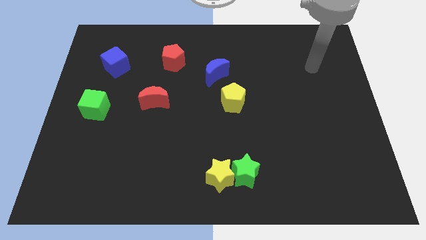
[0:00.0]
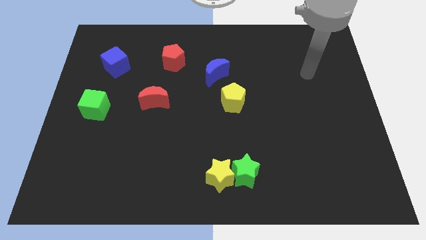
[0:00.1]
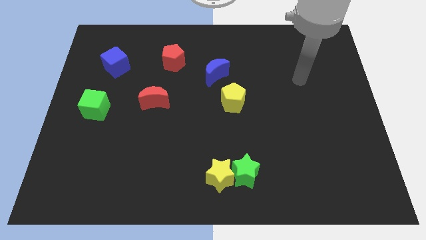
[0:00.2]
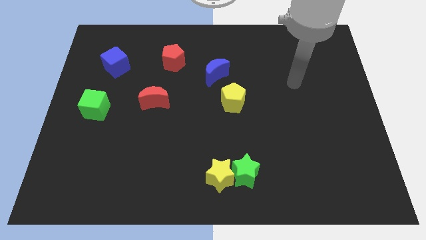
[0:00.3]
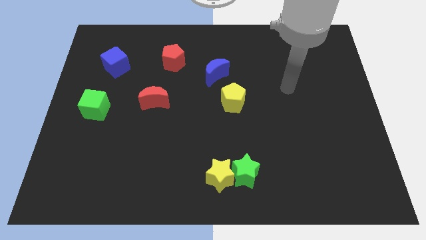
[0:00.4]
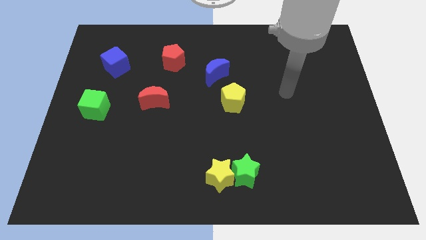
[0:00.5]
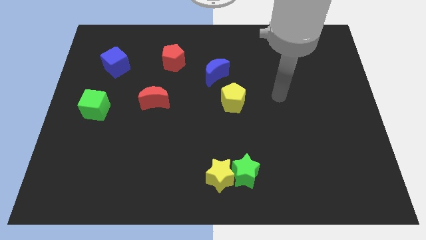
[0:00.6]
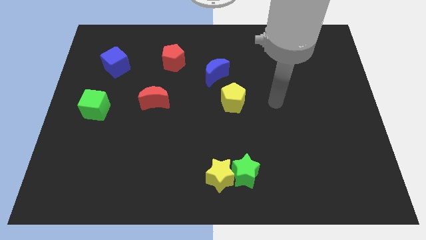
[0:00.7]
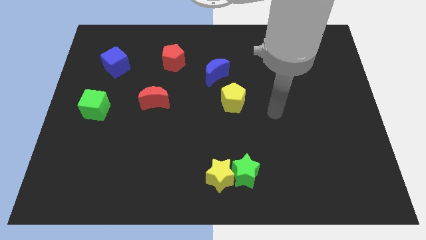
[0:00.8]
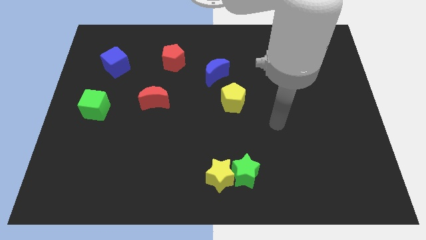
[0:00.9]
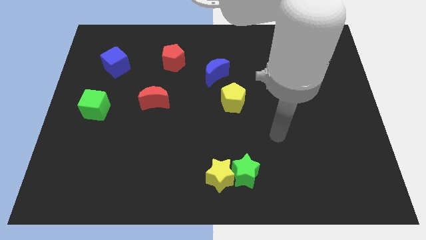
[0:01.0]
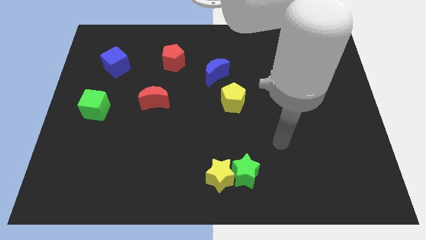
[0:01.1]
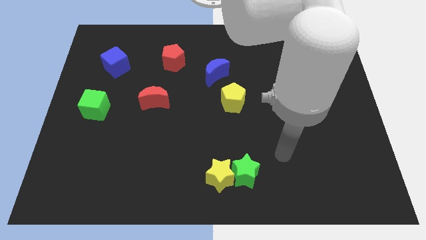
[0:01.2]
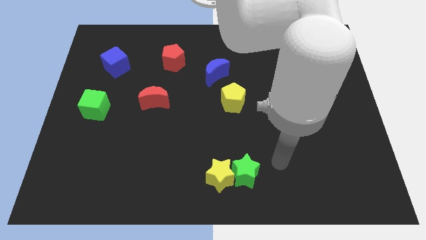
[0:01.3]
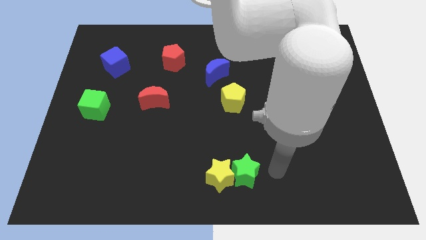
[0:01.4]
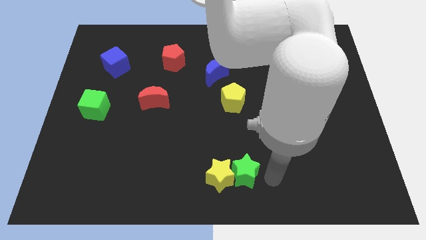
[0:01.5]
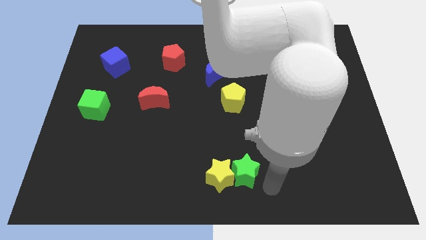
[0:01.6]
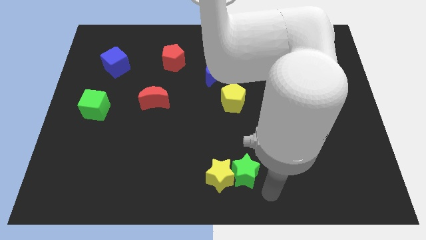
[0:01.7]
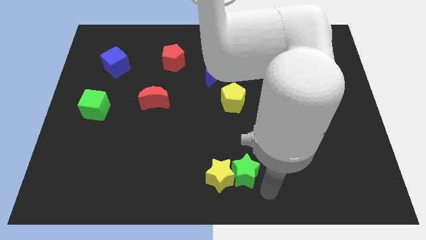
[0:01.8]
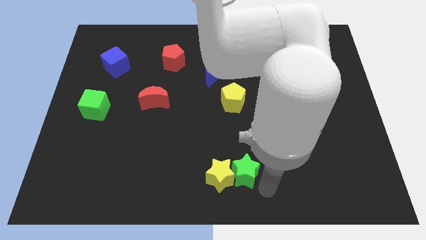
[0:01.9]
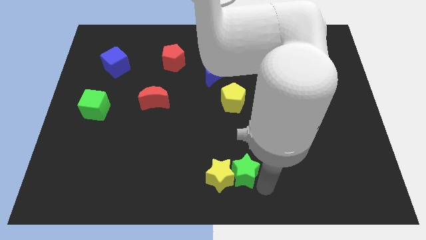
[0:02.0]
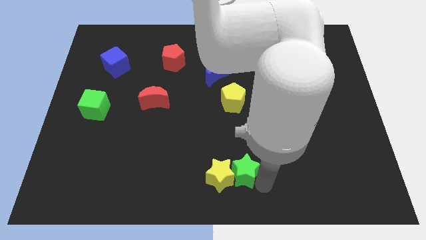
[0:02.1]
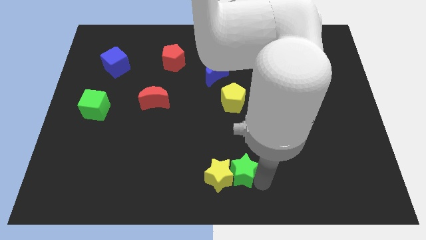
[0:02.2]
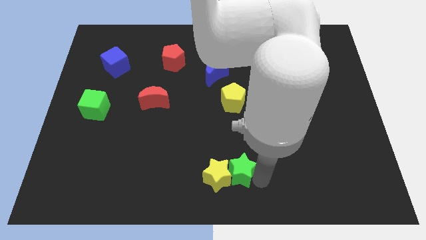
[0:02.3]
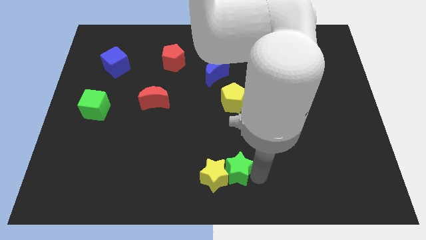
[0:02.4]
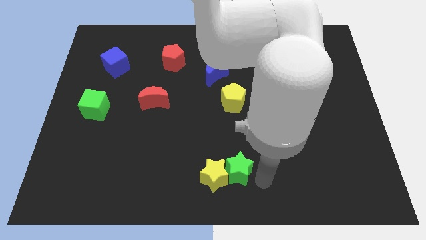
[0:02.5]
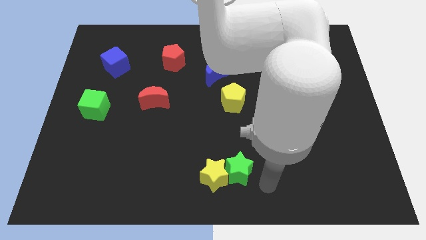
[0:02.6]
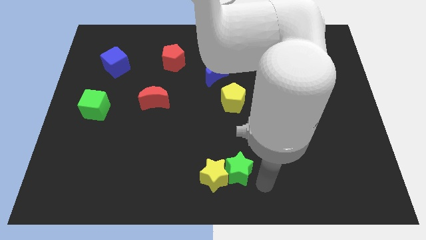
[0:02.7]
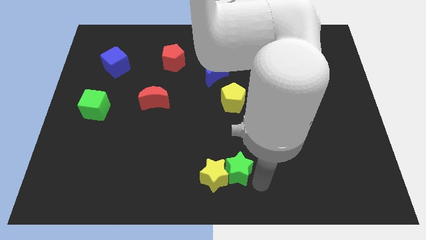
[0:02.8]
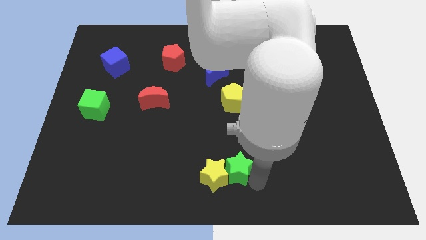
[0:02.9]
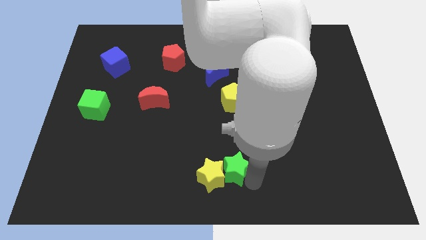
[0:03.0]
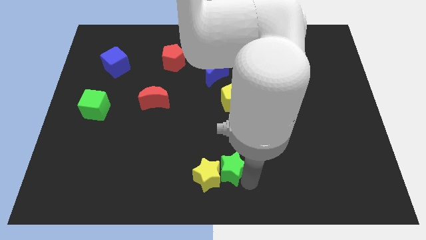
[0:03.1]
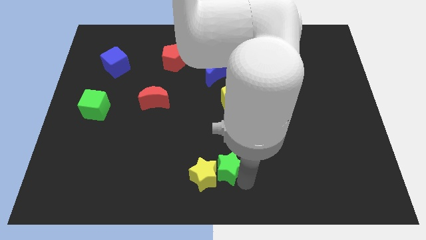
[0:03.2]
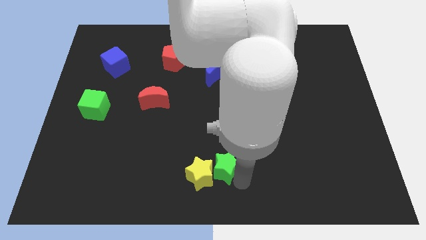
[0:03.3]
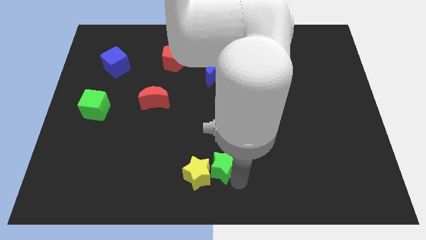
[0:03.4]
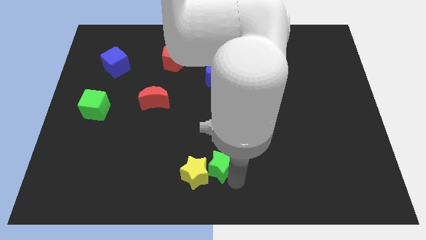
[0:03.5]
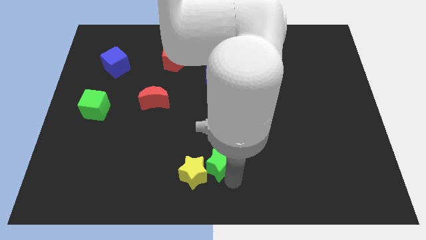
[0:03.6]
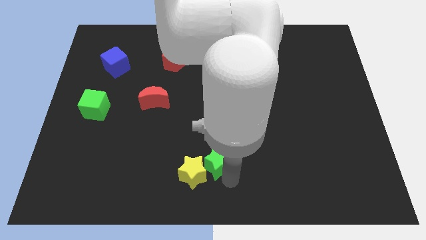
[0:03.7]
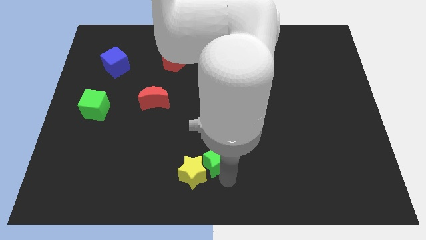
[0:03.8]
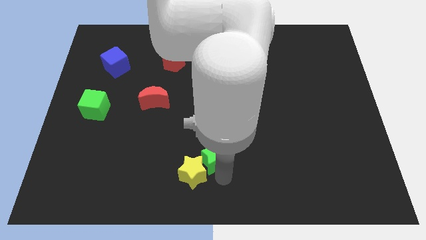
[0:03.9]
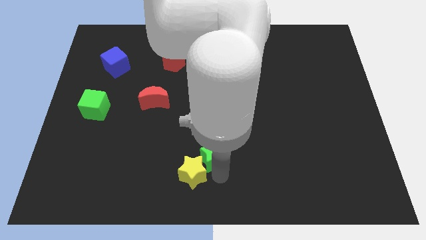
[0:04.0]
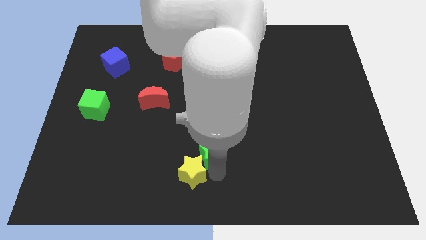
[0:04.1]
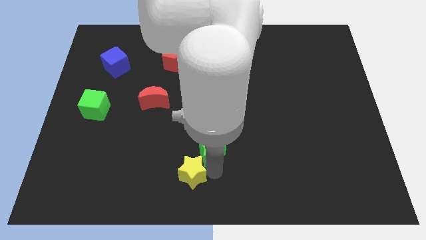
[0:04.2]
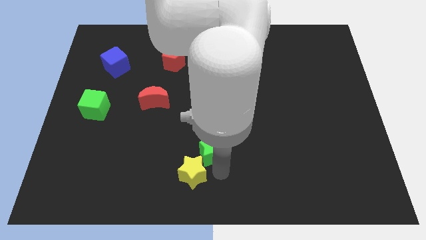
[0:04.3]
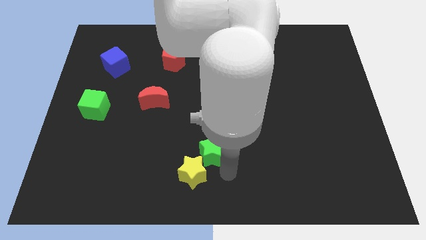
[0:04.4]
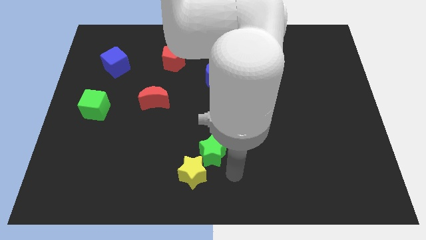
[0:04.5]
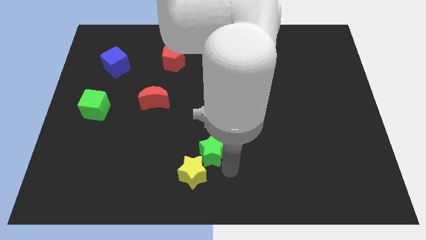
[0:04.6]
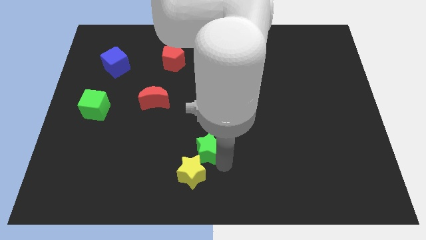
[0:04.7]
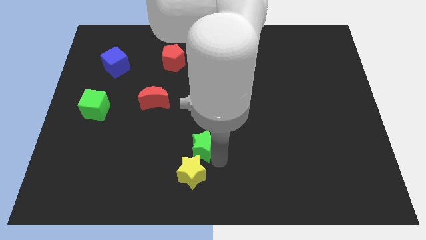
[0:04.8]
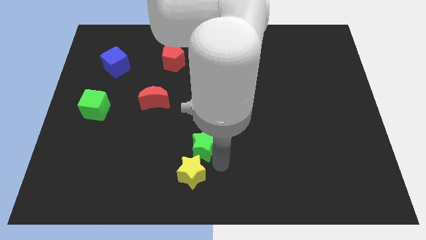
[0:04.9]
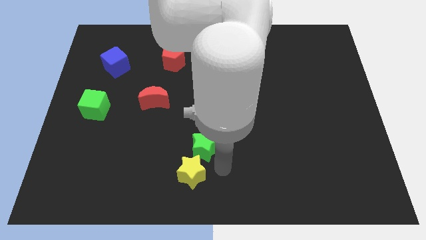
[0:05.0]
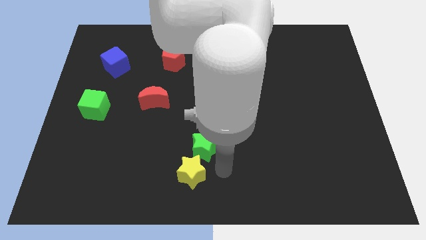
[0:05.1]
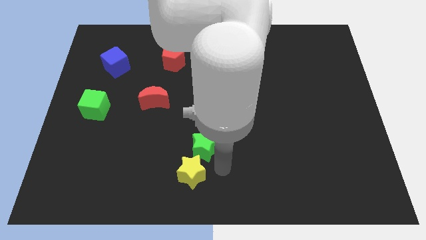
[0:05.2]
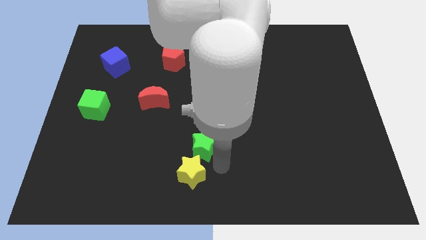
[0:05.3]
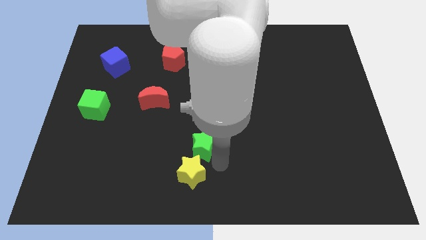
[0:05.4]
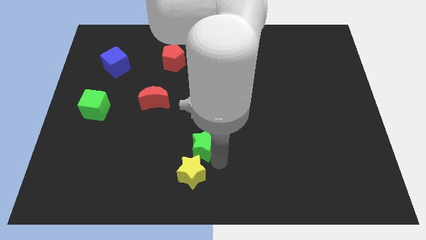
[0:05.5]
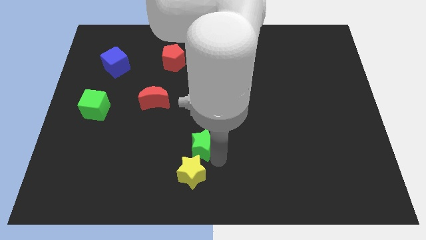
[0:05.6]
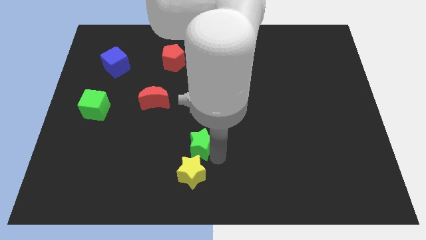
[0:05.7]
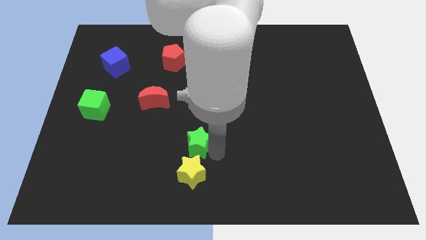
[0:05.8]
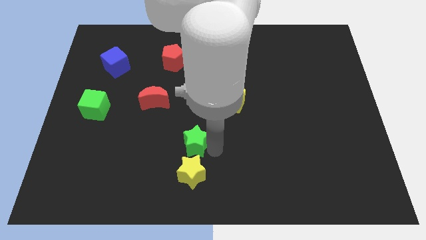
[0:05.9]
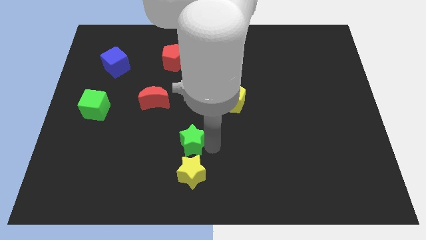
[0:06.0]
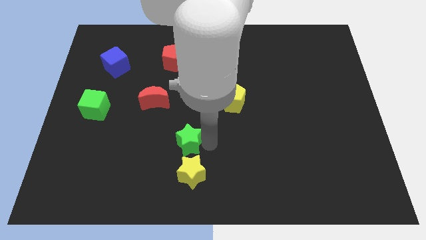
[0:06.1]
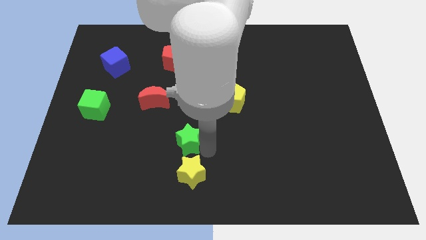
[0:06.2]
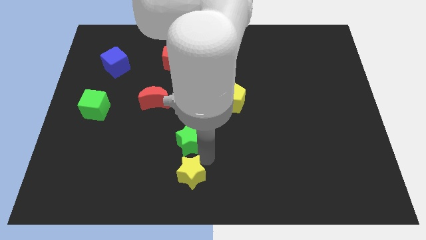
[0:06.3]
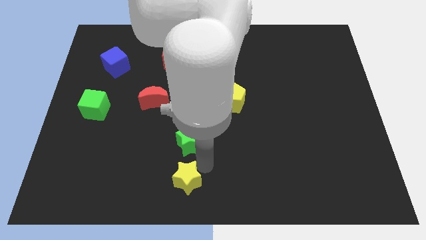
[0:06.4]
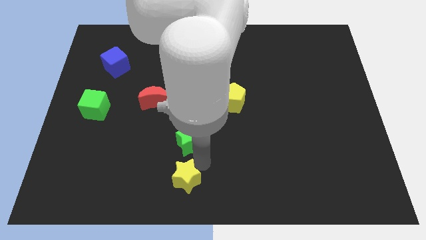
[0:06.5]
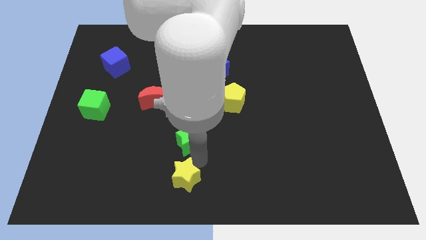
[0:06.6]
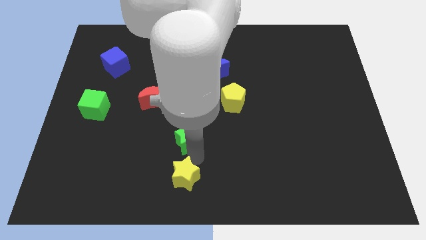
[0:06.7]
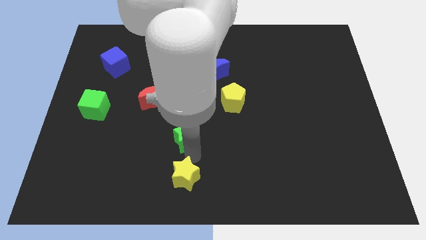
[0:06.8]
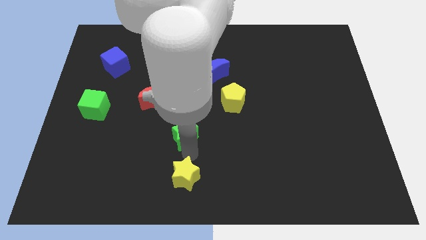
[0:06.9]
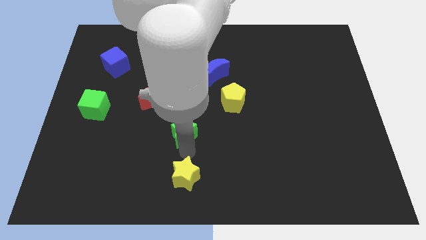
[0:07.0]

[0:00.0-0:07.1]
put the green star to the bottom right side of the red moon
